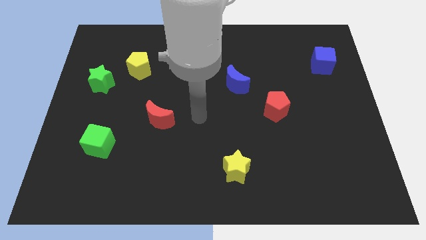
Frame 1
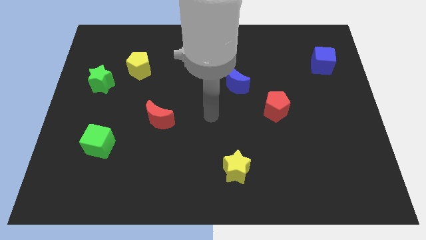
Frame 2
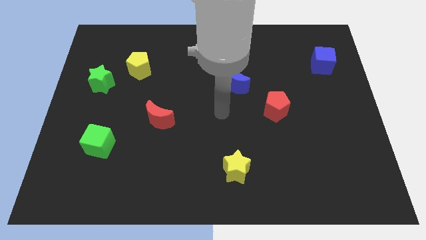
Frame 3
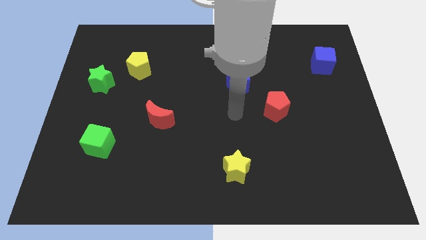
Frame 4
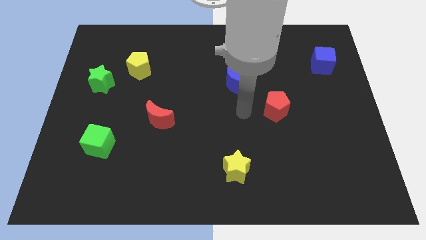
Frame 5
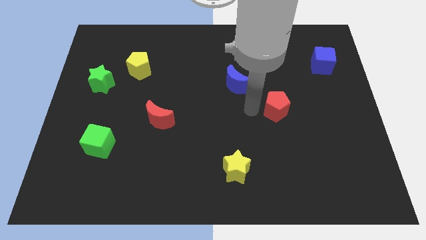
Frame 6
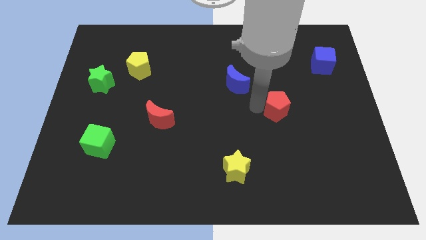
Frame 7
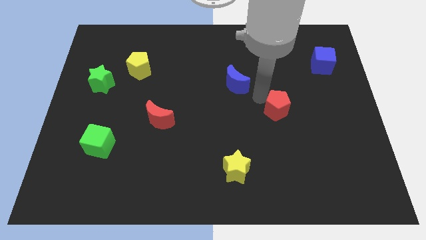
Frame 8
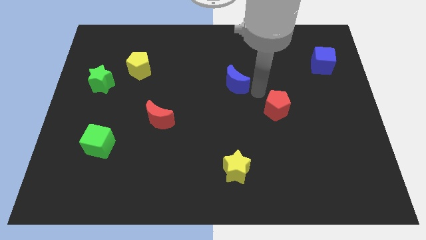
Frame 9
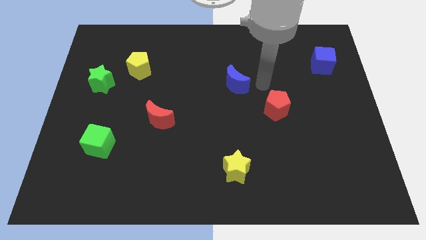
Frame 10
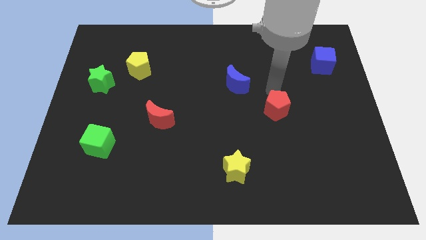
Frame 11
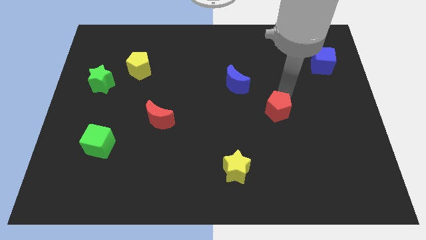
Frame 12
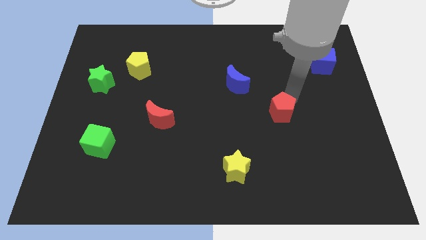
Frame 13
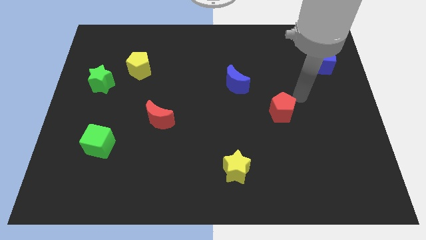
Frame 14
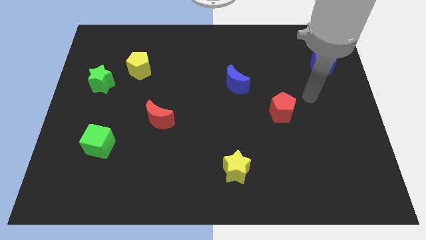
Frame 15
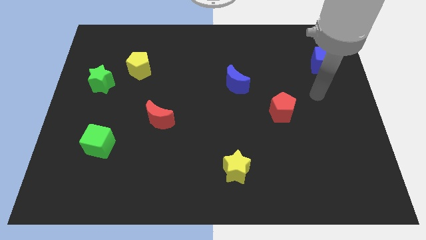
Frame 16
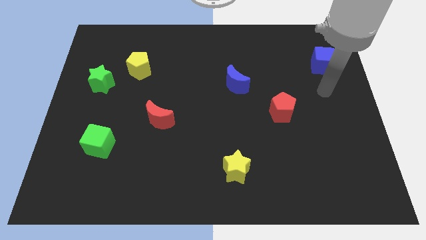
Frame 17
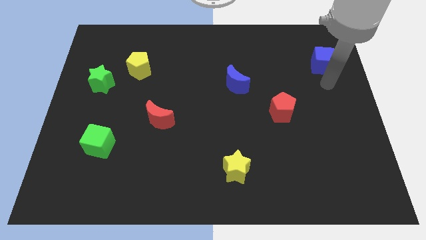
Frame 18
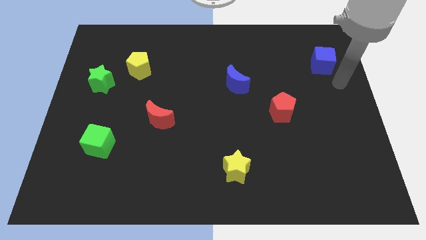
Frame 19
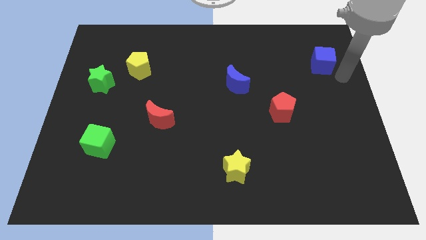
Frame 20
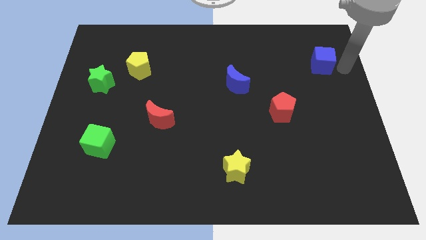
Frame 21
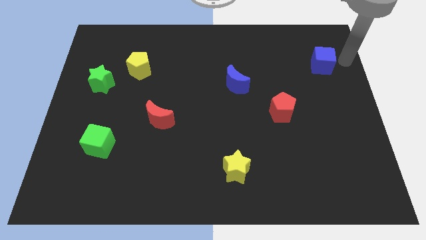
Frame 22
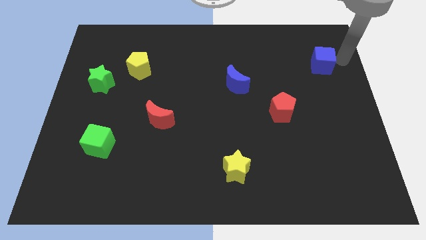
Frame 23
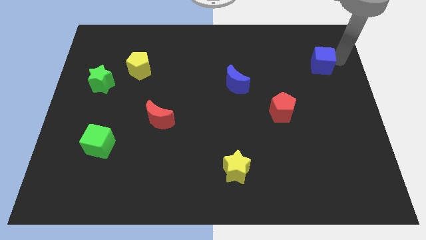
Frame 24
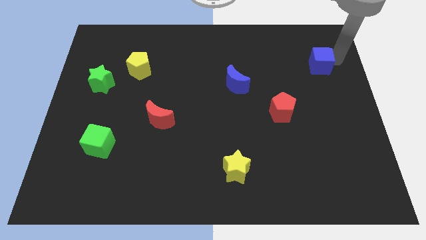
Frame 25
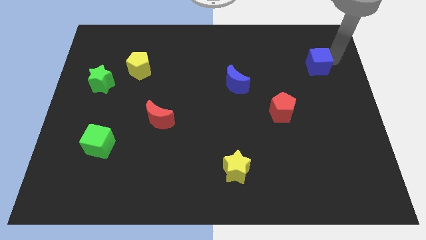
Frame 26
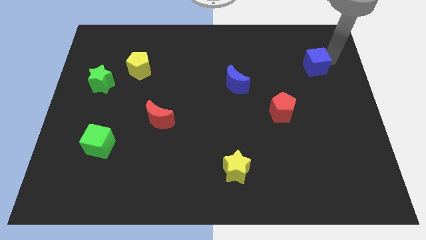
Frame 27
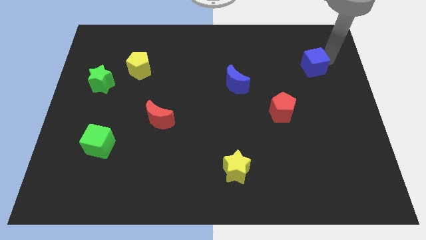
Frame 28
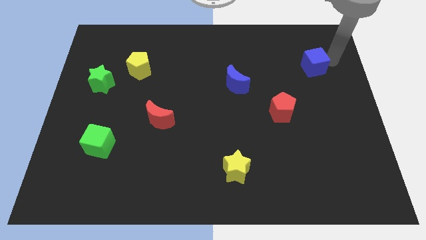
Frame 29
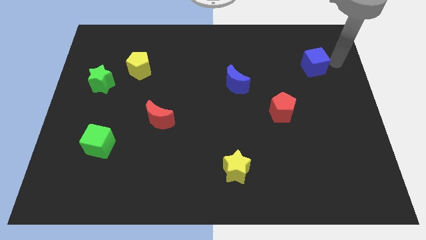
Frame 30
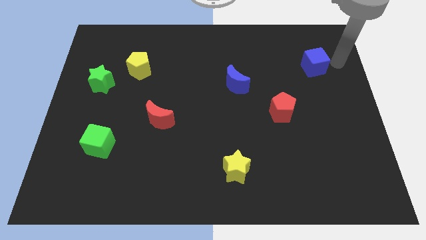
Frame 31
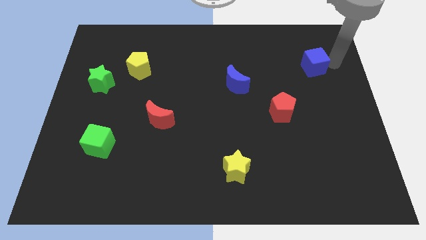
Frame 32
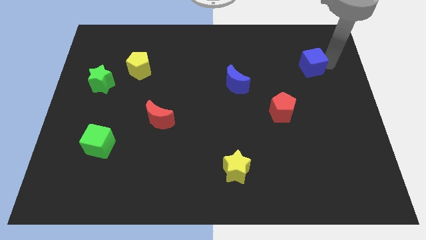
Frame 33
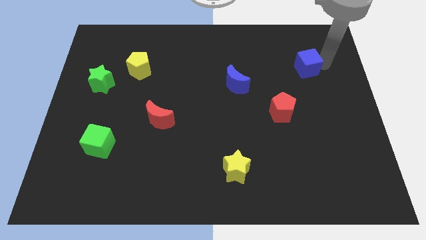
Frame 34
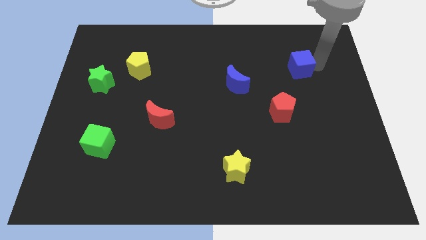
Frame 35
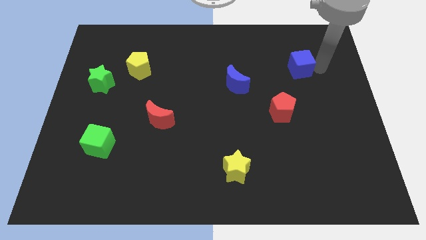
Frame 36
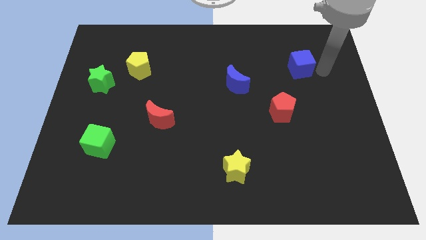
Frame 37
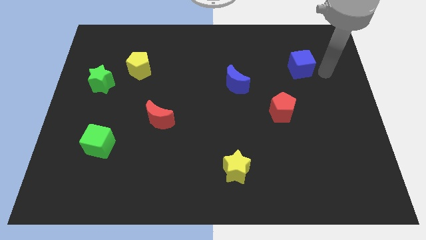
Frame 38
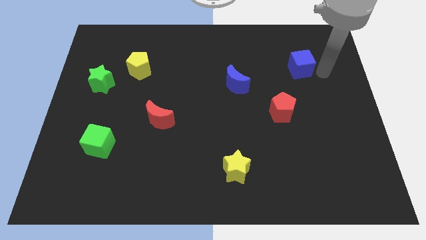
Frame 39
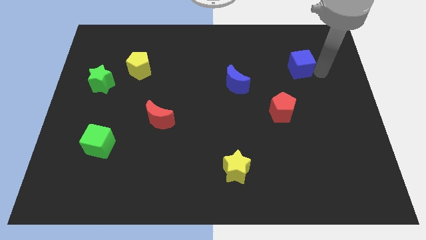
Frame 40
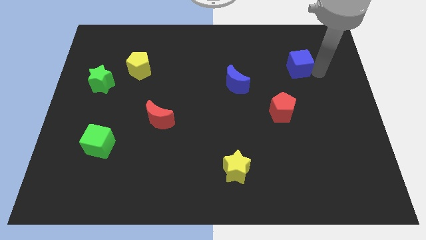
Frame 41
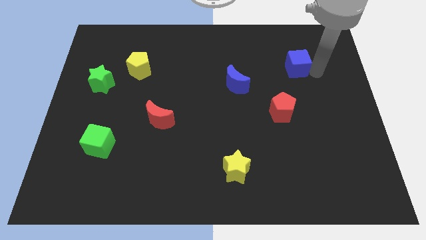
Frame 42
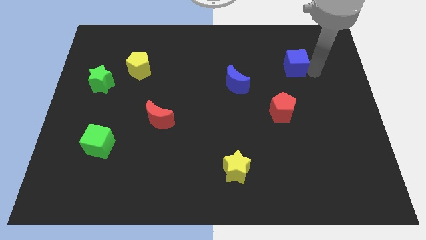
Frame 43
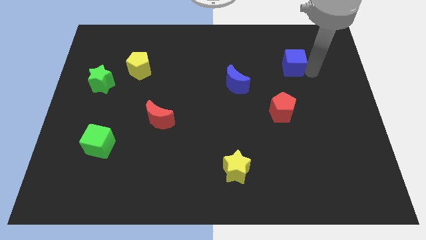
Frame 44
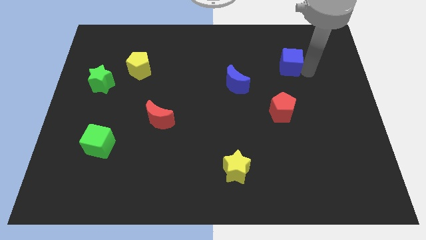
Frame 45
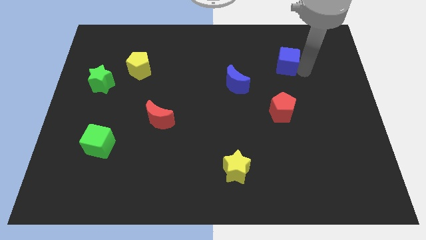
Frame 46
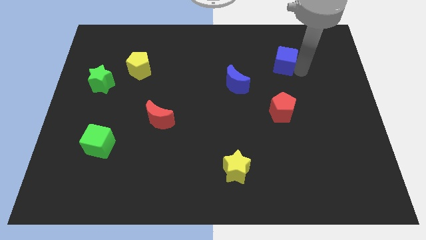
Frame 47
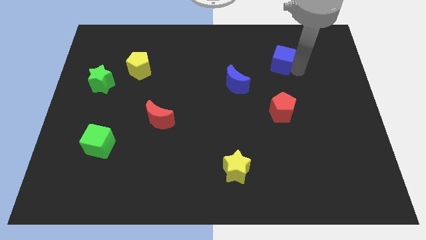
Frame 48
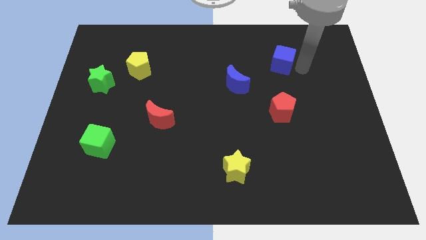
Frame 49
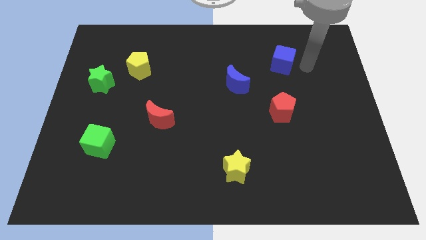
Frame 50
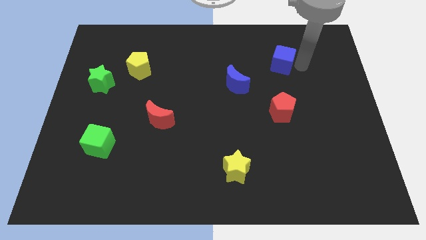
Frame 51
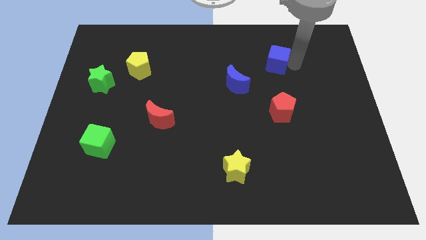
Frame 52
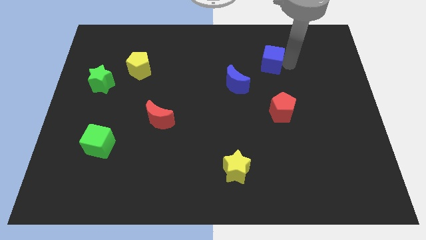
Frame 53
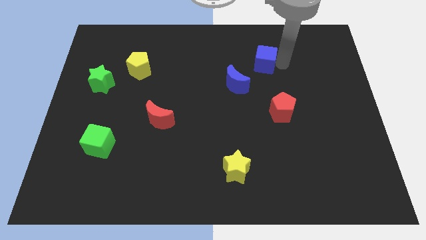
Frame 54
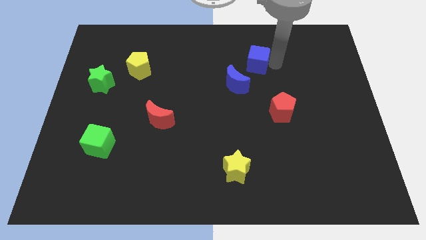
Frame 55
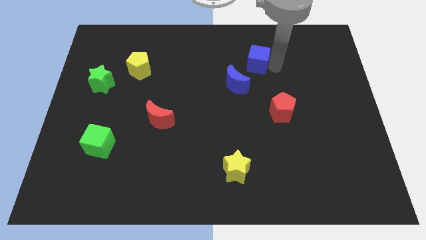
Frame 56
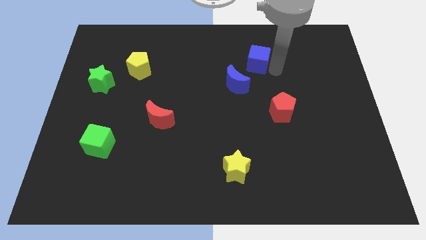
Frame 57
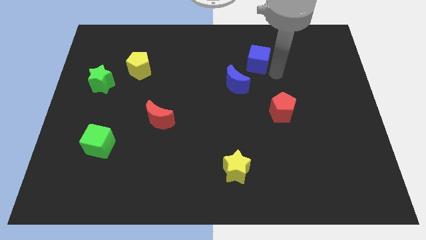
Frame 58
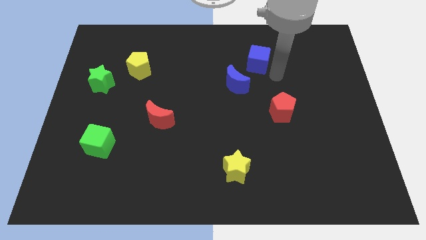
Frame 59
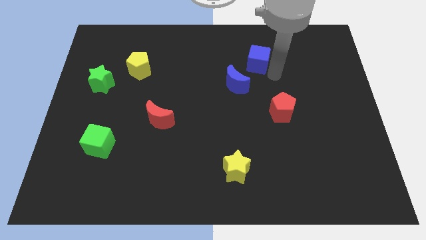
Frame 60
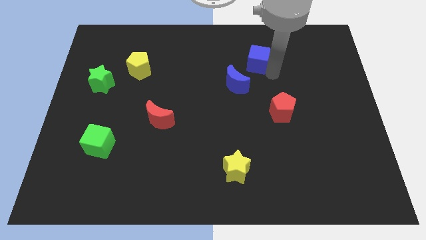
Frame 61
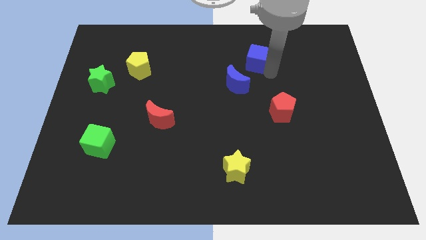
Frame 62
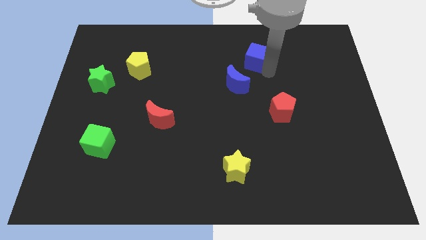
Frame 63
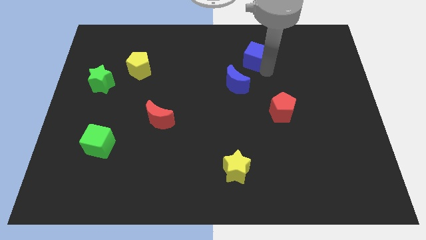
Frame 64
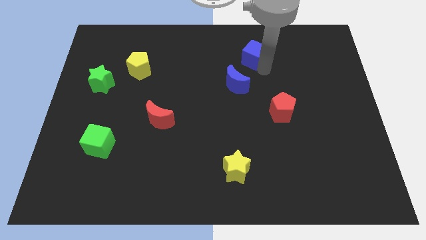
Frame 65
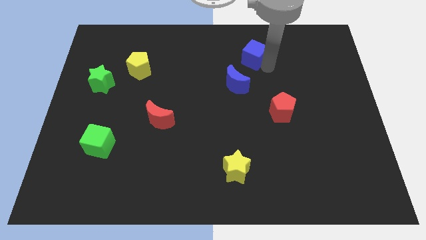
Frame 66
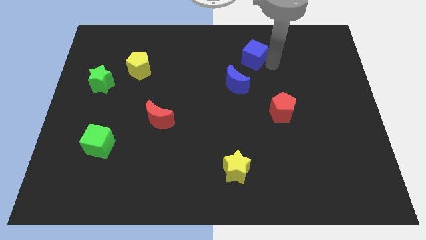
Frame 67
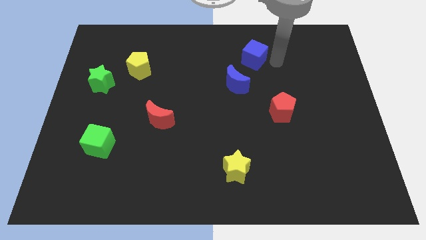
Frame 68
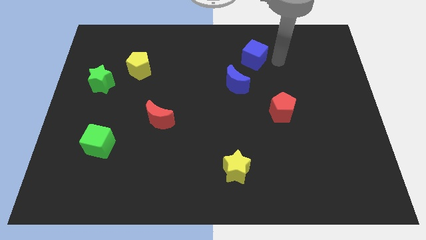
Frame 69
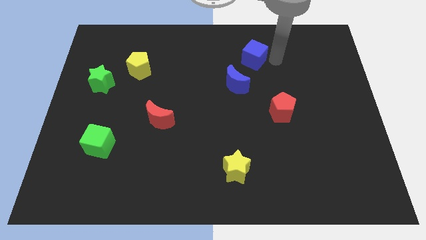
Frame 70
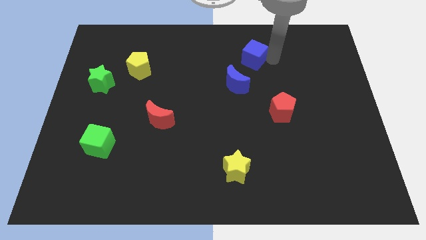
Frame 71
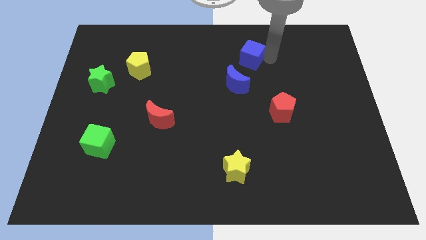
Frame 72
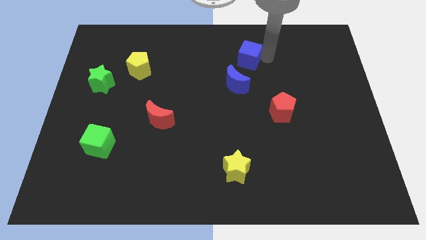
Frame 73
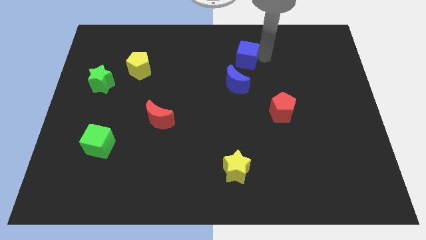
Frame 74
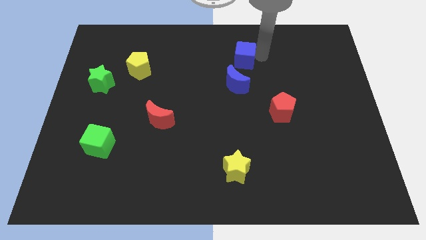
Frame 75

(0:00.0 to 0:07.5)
slide the blue cube left

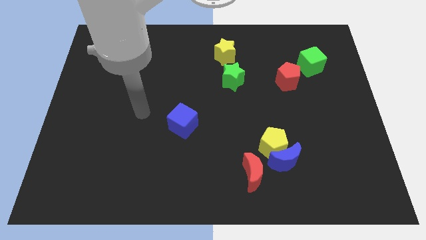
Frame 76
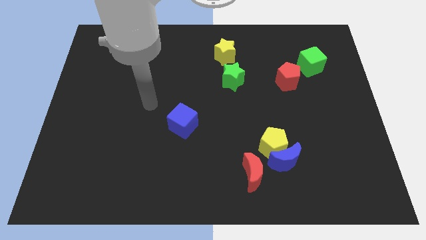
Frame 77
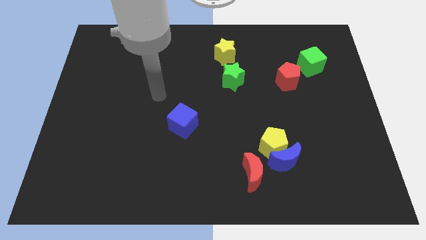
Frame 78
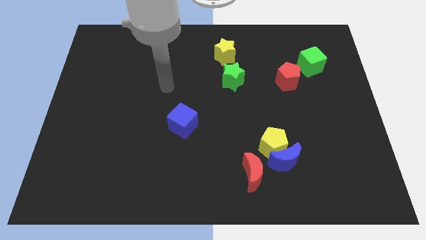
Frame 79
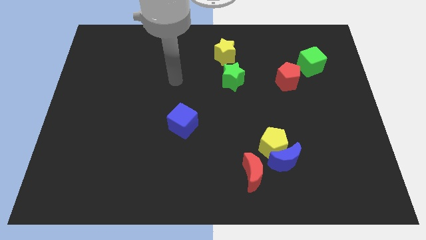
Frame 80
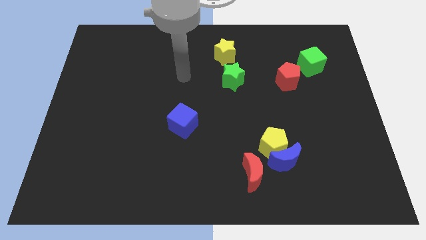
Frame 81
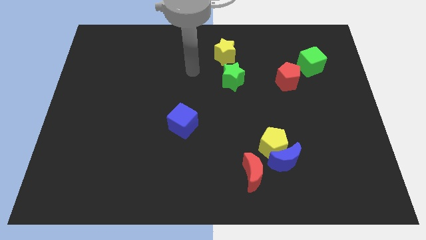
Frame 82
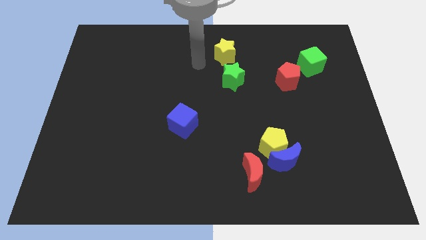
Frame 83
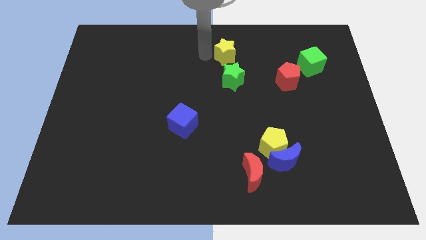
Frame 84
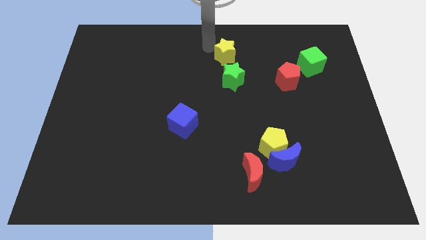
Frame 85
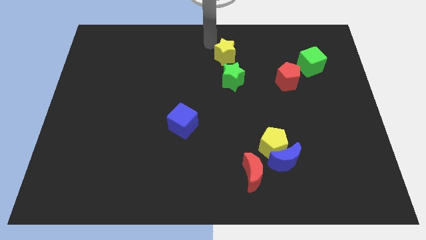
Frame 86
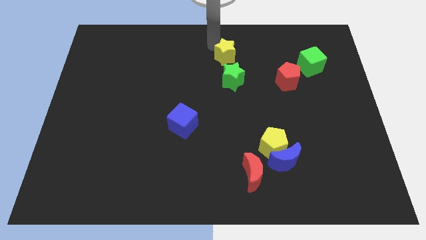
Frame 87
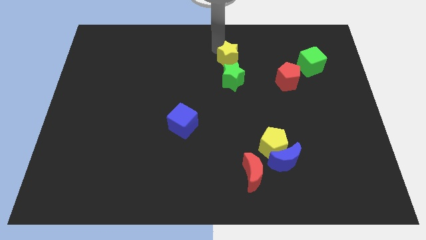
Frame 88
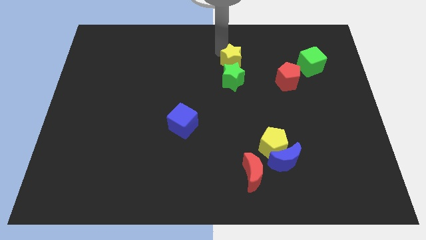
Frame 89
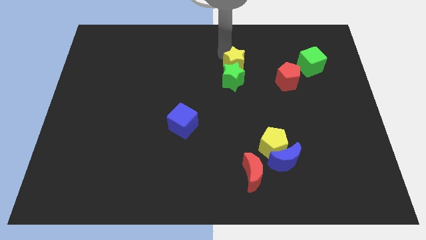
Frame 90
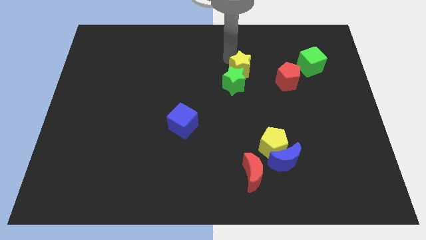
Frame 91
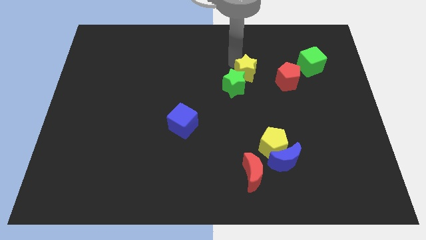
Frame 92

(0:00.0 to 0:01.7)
slightly move the yellow star down and then to the right
